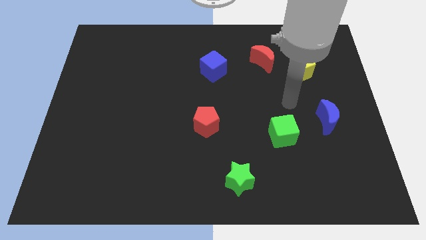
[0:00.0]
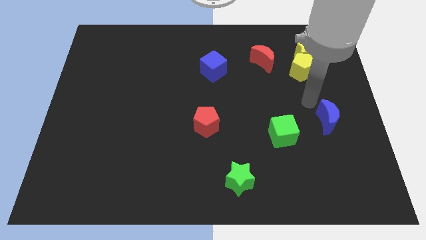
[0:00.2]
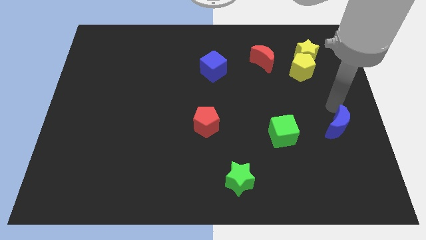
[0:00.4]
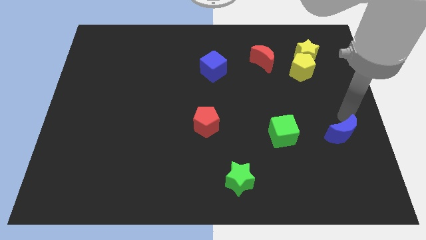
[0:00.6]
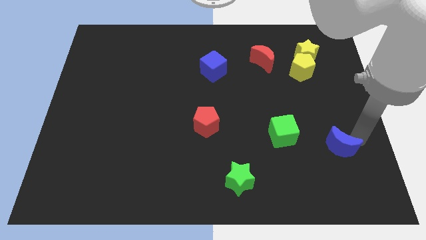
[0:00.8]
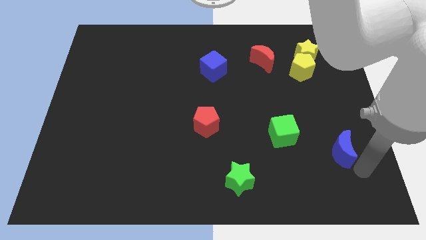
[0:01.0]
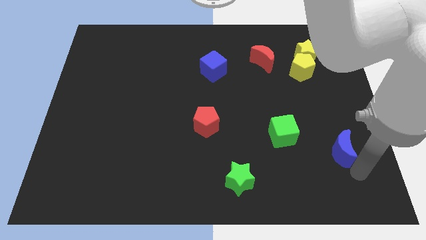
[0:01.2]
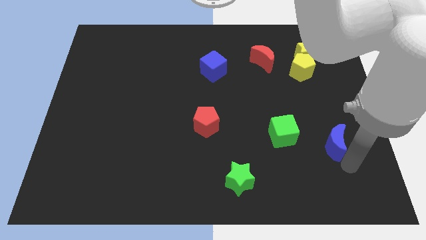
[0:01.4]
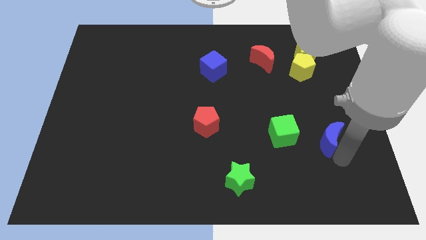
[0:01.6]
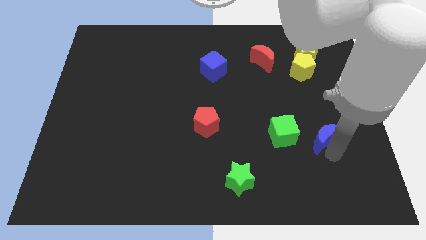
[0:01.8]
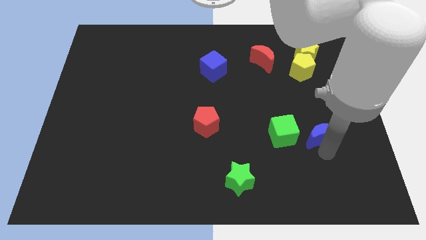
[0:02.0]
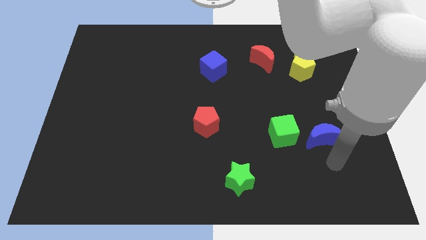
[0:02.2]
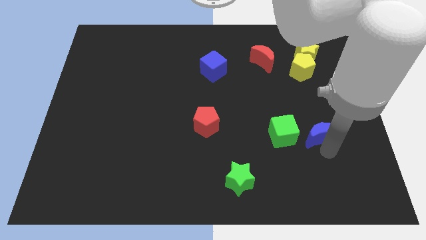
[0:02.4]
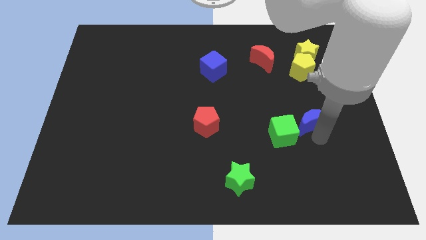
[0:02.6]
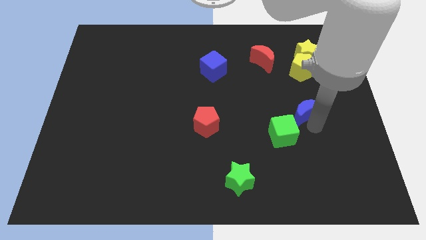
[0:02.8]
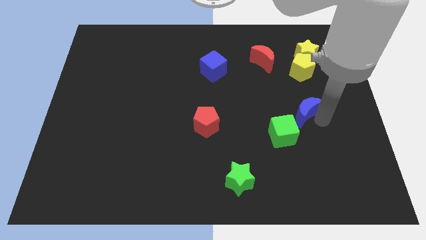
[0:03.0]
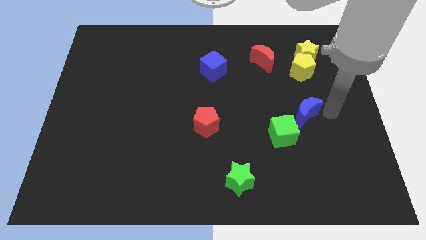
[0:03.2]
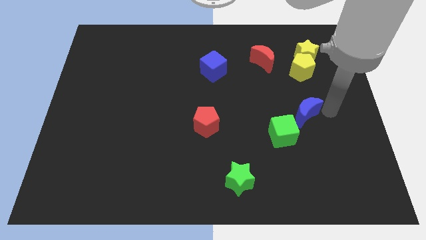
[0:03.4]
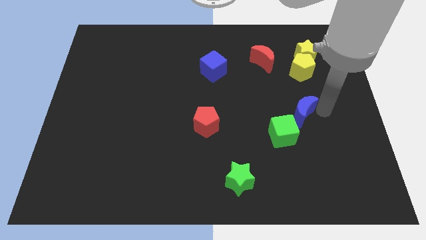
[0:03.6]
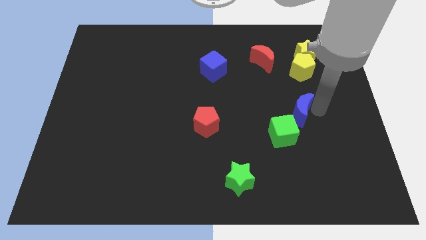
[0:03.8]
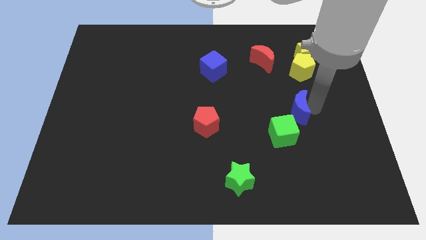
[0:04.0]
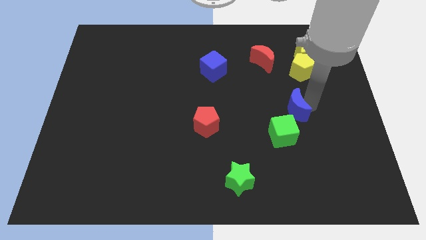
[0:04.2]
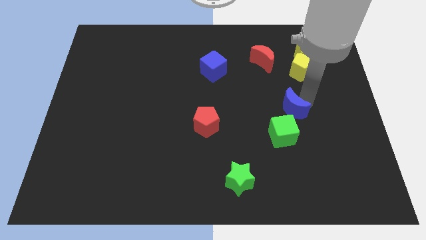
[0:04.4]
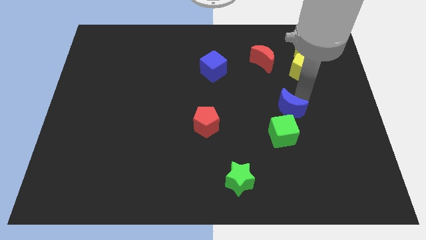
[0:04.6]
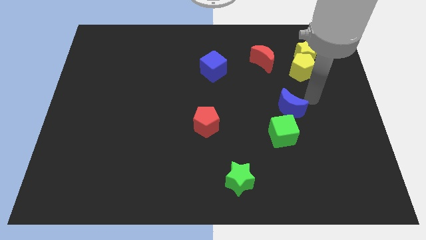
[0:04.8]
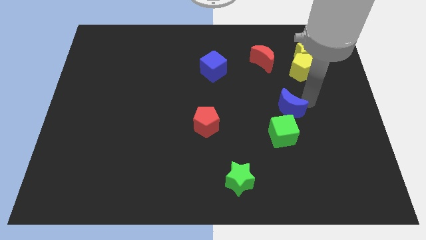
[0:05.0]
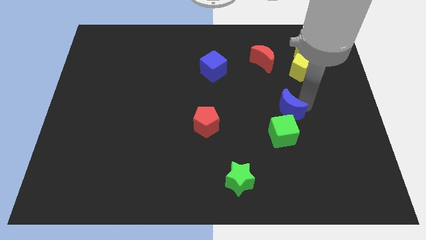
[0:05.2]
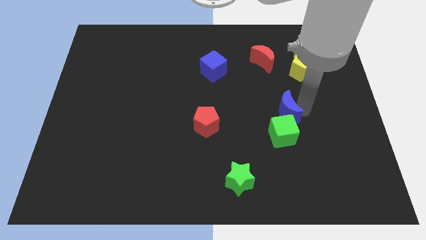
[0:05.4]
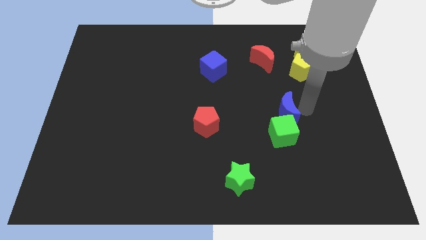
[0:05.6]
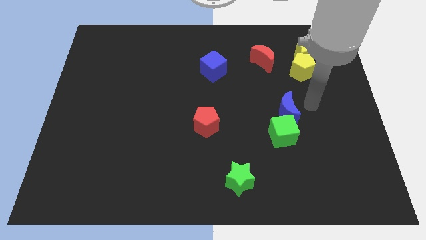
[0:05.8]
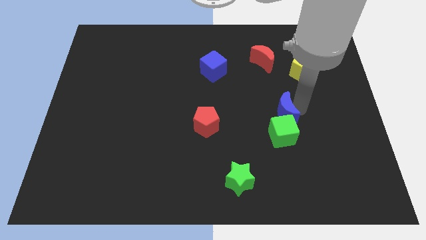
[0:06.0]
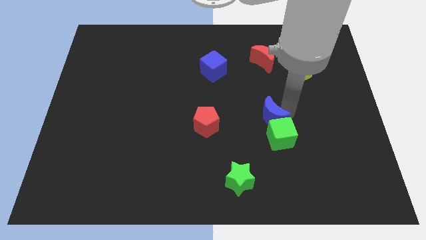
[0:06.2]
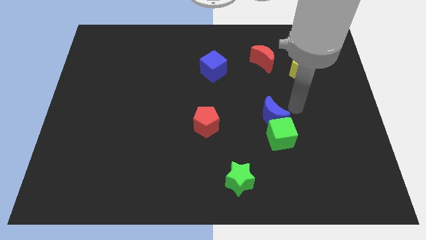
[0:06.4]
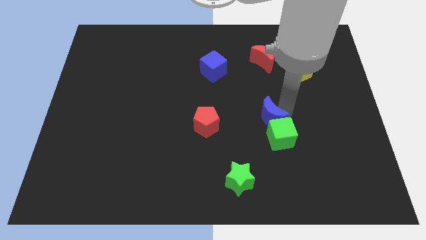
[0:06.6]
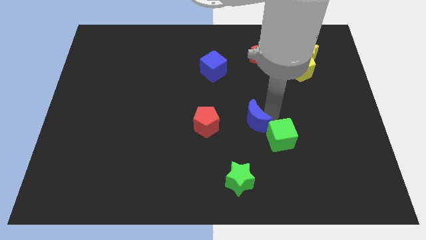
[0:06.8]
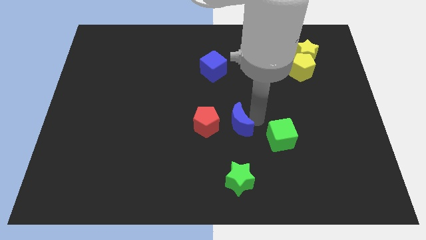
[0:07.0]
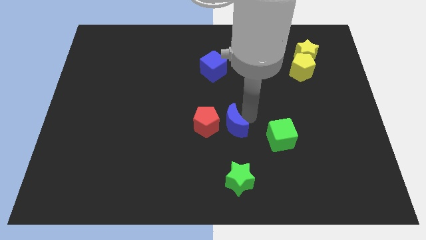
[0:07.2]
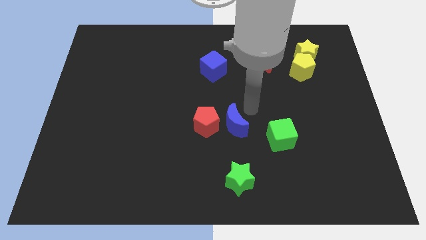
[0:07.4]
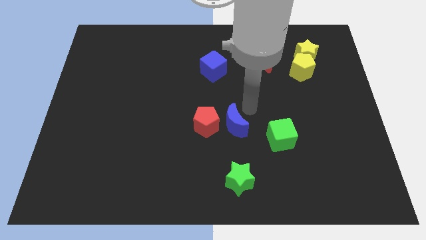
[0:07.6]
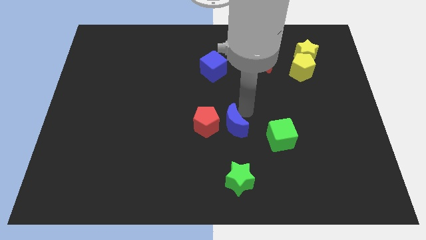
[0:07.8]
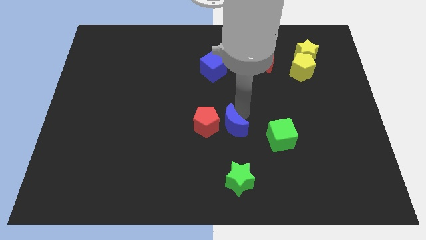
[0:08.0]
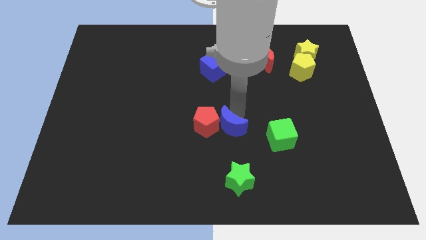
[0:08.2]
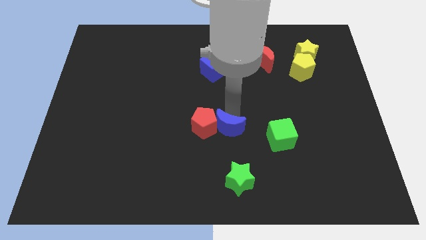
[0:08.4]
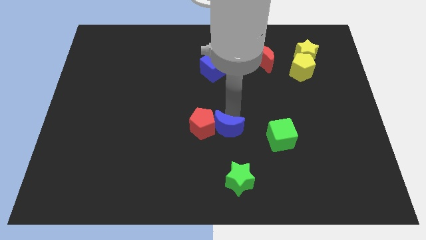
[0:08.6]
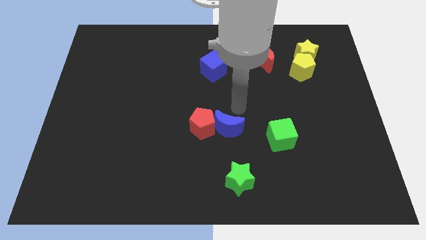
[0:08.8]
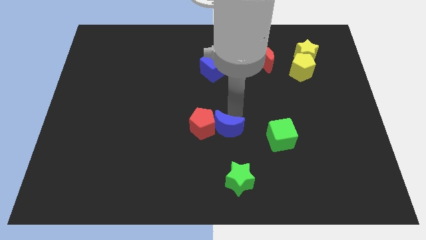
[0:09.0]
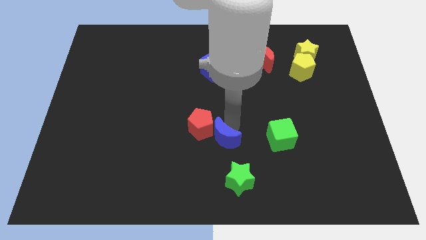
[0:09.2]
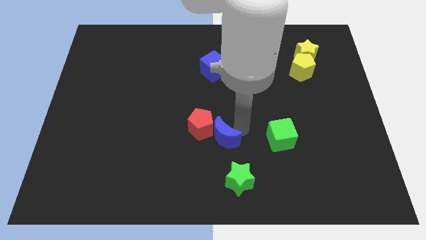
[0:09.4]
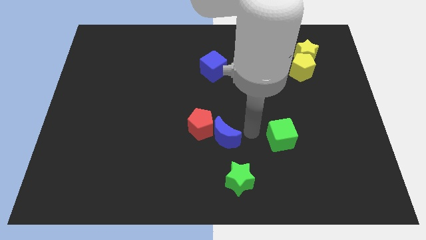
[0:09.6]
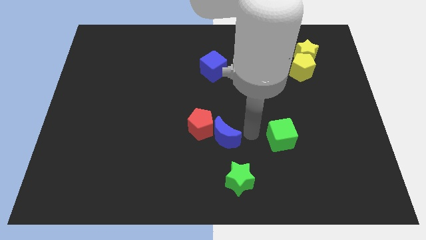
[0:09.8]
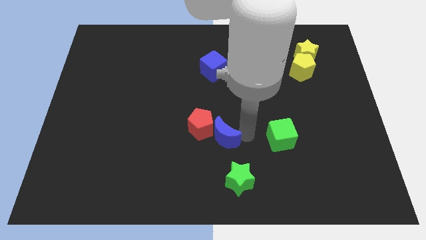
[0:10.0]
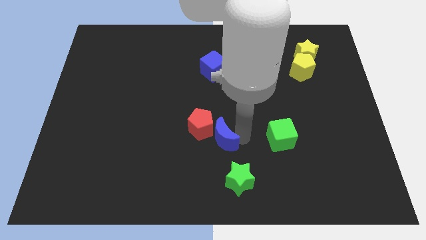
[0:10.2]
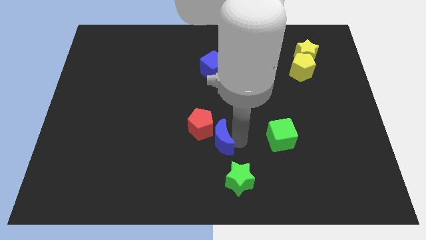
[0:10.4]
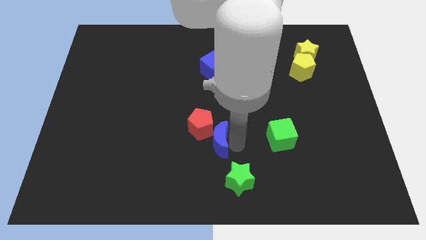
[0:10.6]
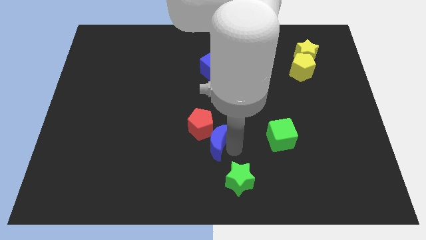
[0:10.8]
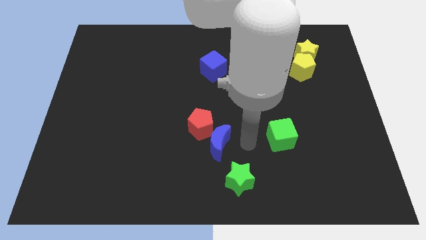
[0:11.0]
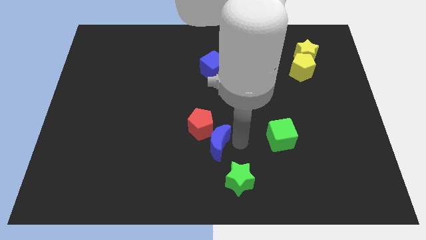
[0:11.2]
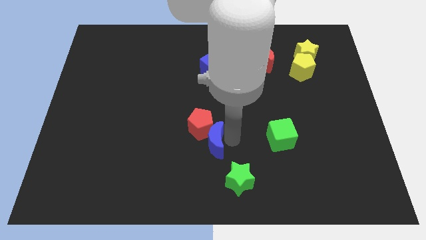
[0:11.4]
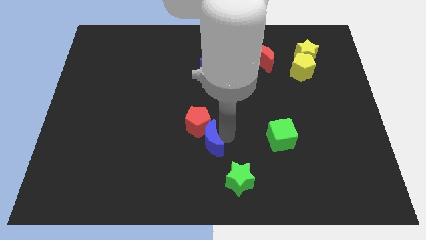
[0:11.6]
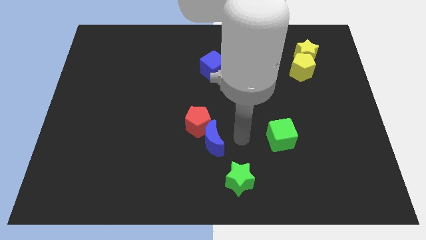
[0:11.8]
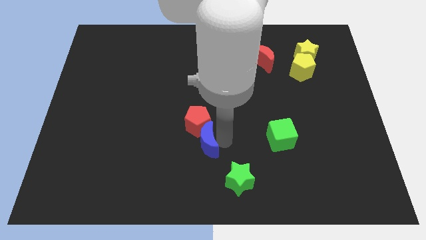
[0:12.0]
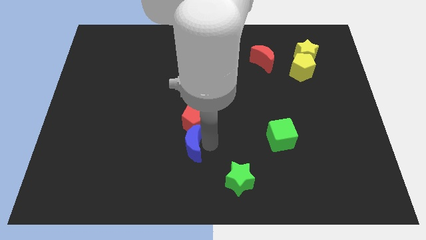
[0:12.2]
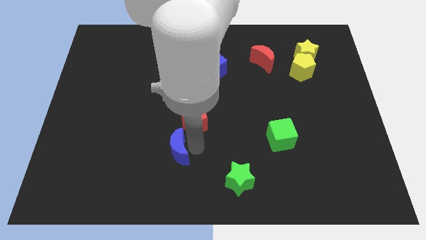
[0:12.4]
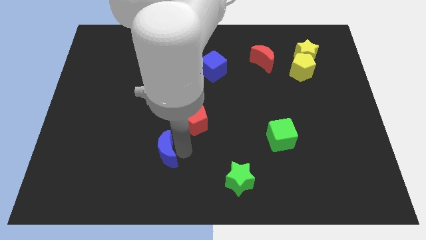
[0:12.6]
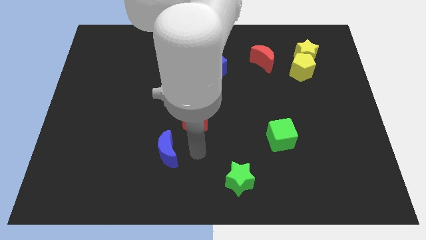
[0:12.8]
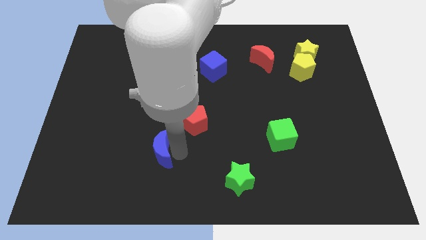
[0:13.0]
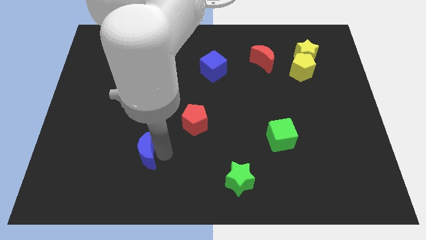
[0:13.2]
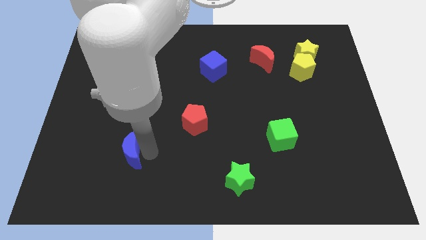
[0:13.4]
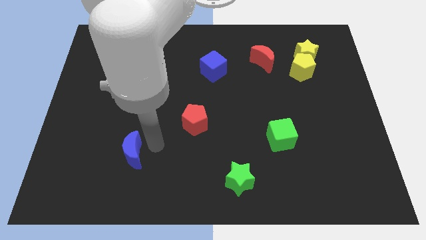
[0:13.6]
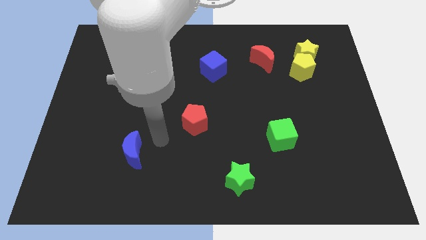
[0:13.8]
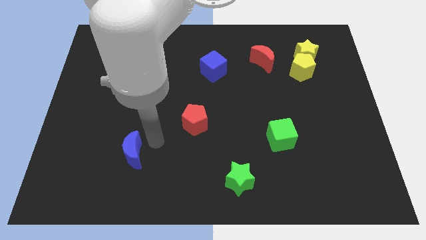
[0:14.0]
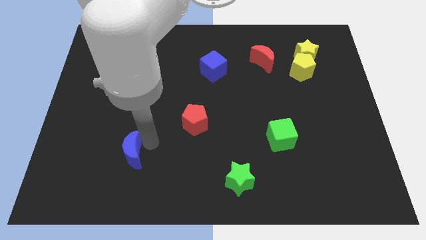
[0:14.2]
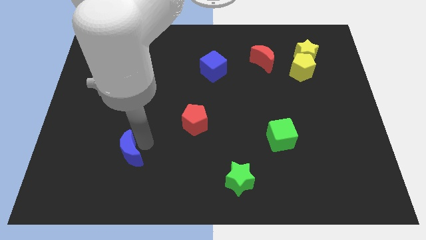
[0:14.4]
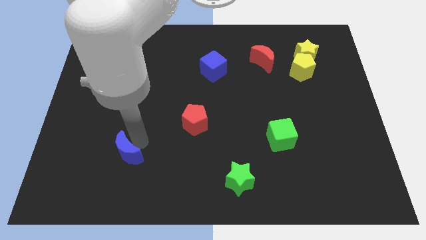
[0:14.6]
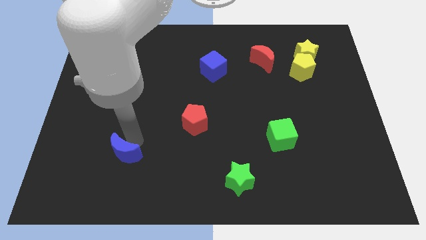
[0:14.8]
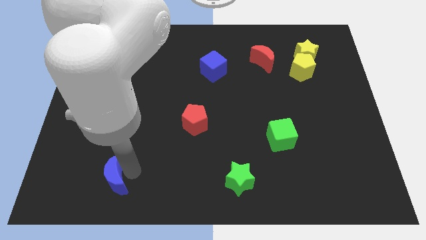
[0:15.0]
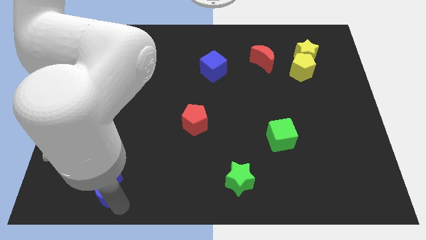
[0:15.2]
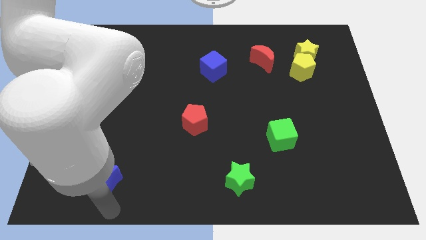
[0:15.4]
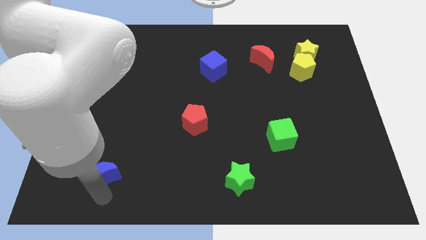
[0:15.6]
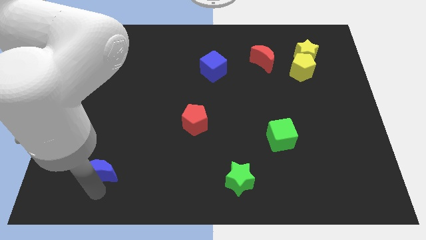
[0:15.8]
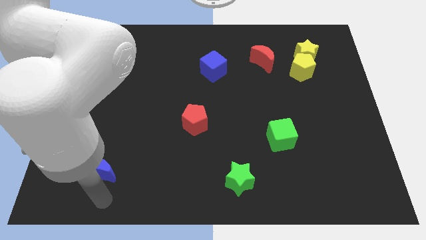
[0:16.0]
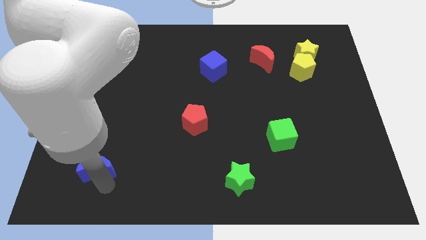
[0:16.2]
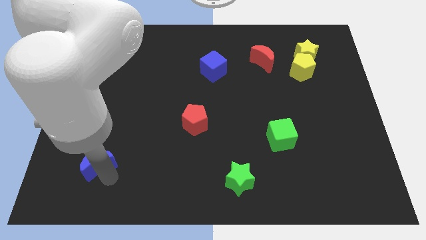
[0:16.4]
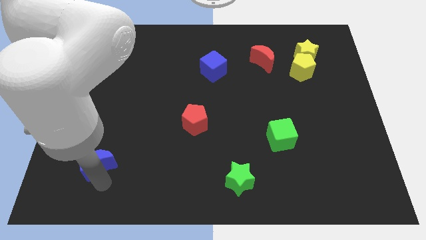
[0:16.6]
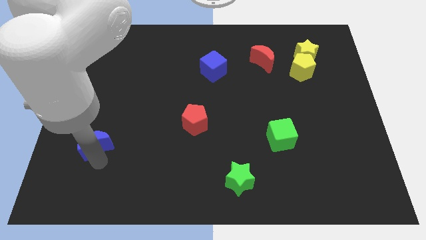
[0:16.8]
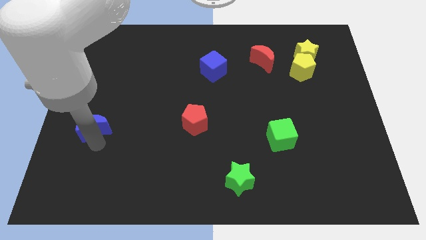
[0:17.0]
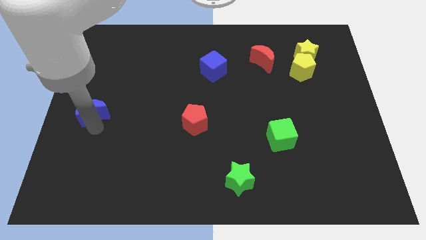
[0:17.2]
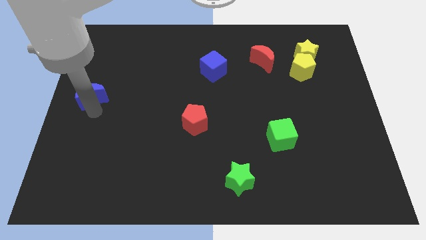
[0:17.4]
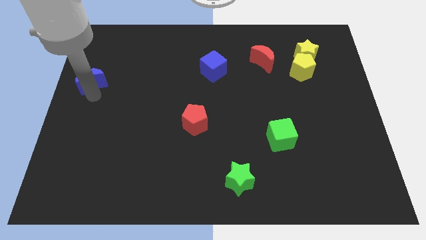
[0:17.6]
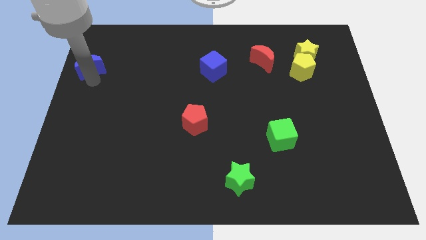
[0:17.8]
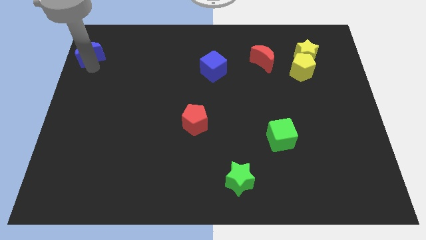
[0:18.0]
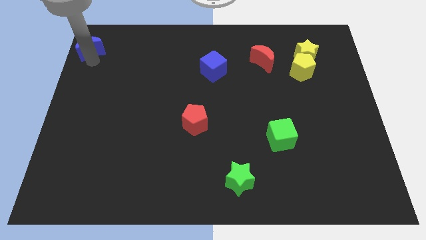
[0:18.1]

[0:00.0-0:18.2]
put the blue moon to the top left corner
